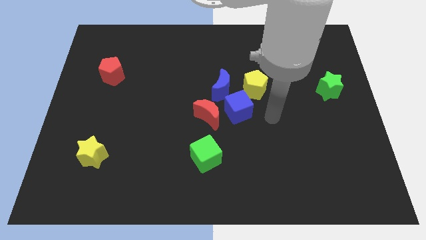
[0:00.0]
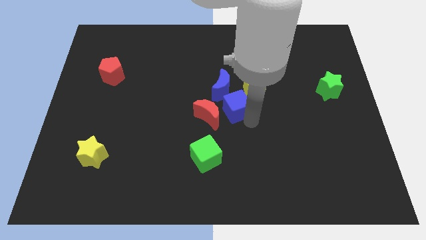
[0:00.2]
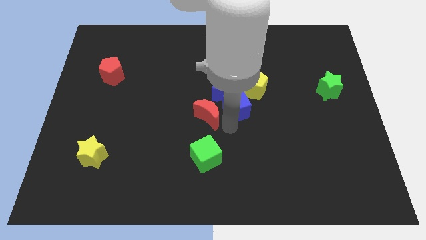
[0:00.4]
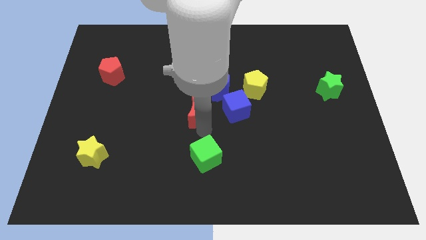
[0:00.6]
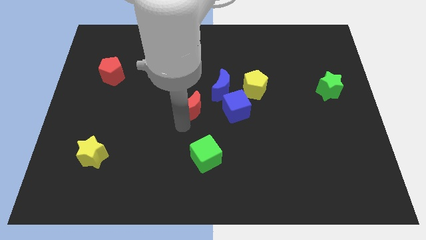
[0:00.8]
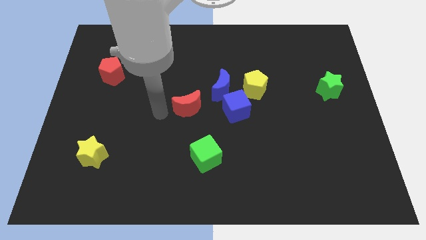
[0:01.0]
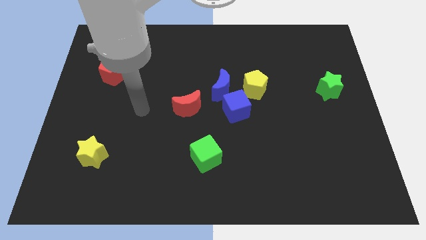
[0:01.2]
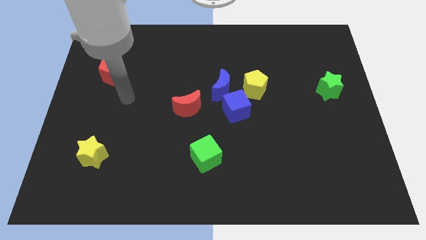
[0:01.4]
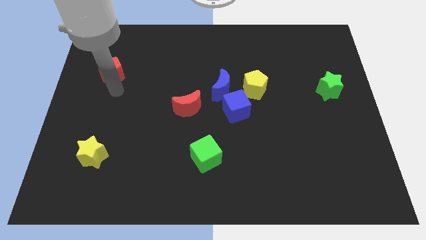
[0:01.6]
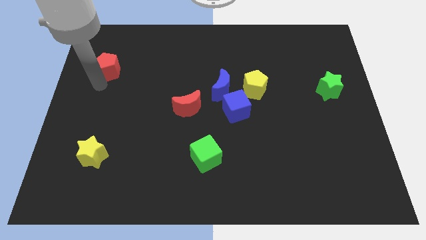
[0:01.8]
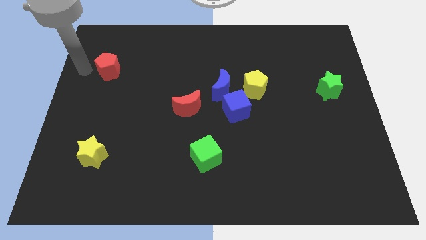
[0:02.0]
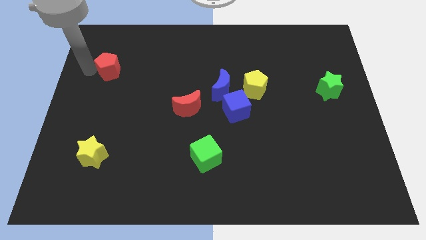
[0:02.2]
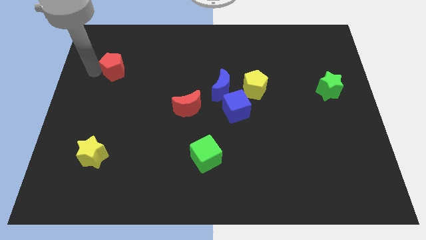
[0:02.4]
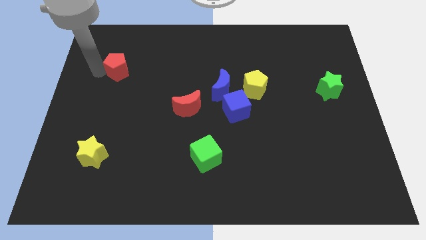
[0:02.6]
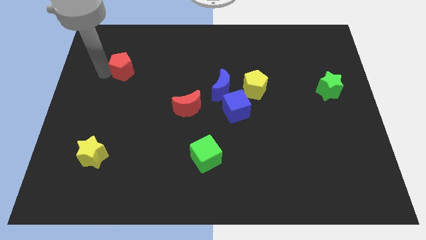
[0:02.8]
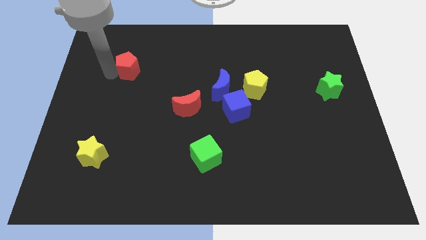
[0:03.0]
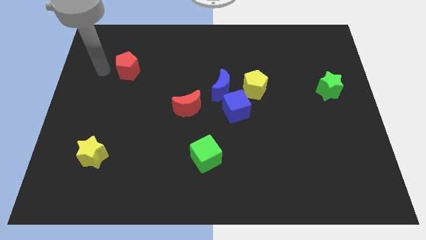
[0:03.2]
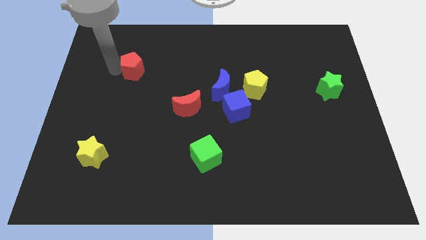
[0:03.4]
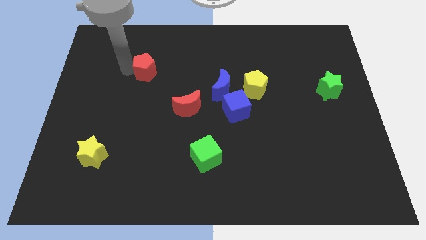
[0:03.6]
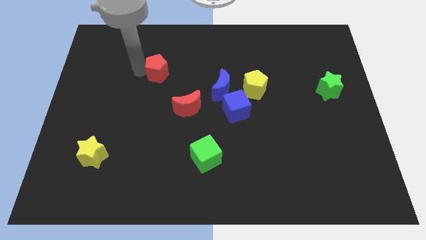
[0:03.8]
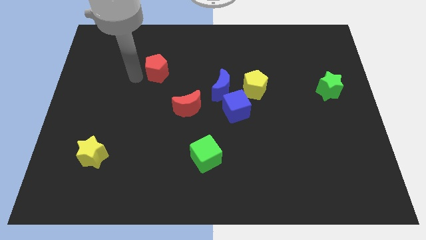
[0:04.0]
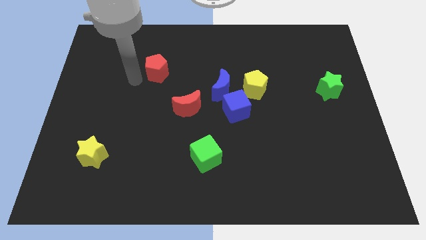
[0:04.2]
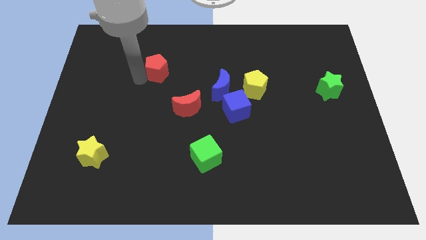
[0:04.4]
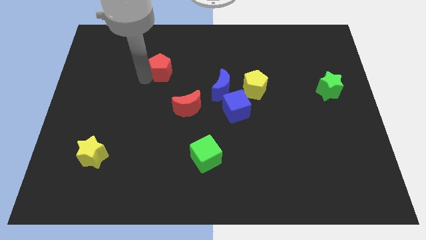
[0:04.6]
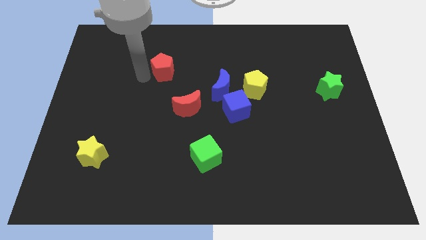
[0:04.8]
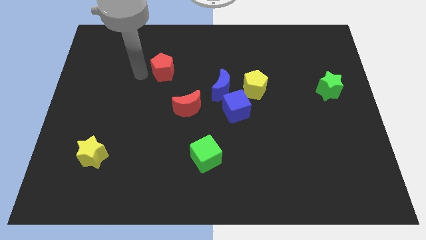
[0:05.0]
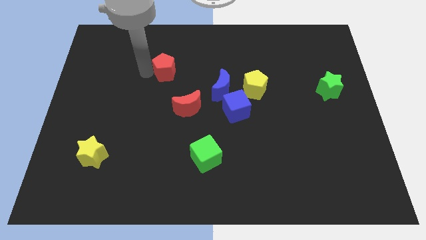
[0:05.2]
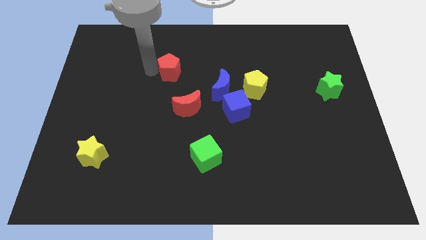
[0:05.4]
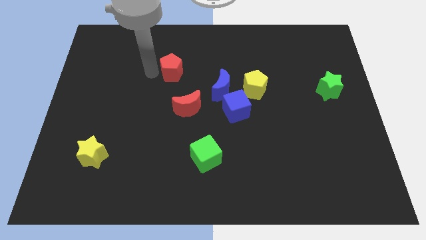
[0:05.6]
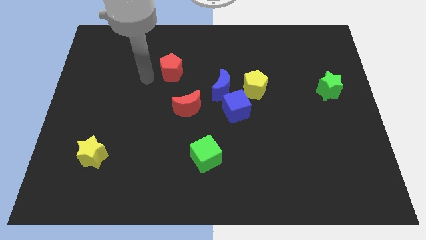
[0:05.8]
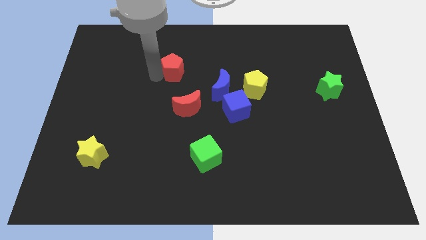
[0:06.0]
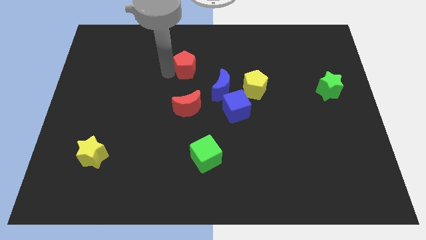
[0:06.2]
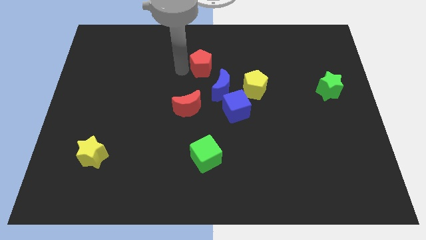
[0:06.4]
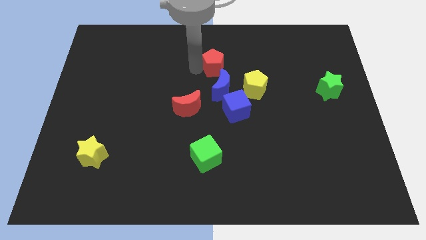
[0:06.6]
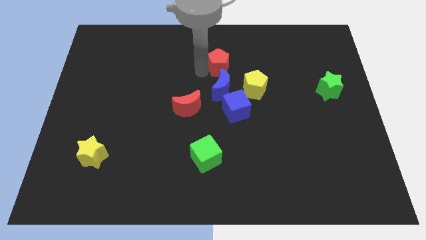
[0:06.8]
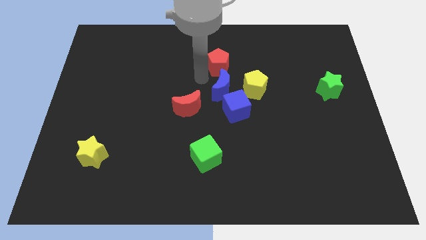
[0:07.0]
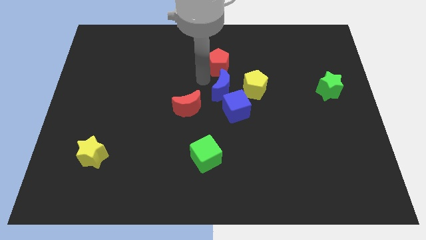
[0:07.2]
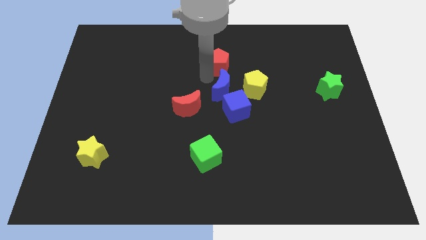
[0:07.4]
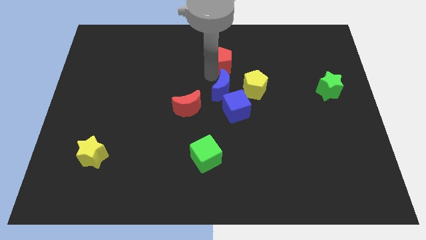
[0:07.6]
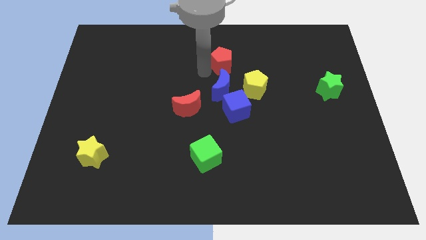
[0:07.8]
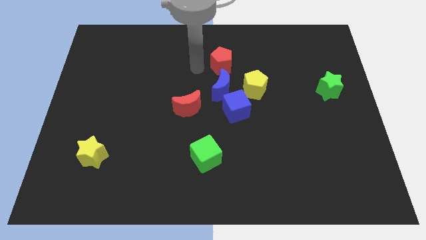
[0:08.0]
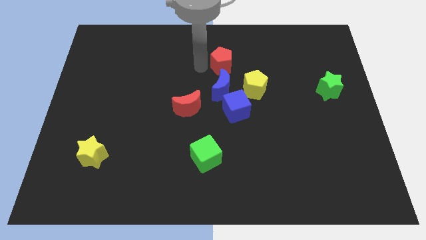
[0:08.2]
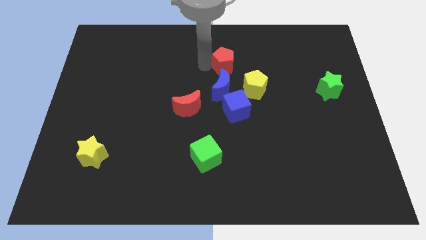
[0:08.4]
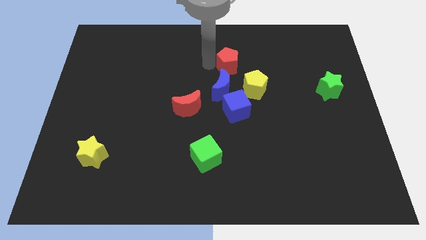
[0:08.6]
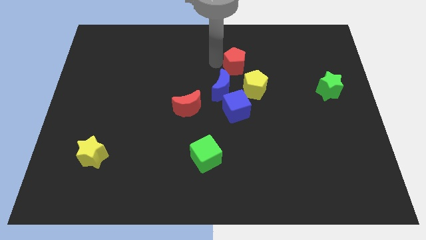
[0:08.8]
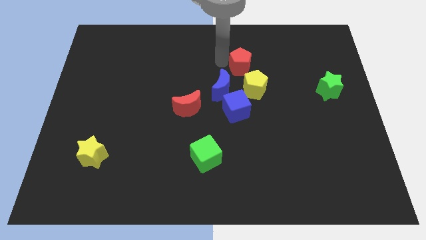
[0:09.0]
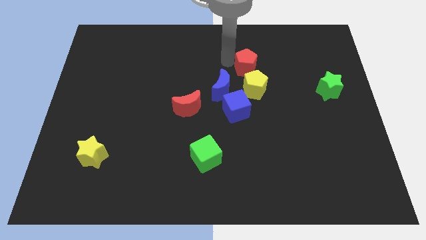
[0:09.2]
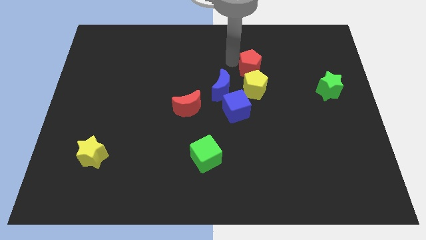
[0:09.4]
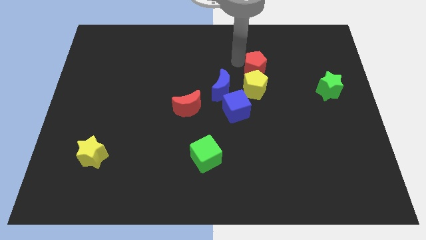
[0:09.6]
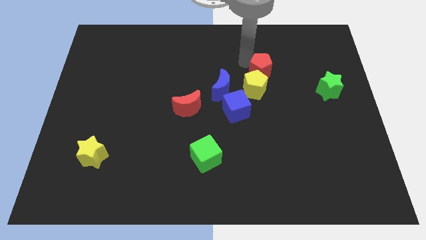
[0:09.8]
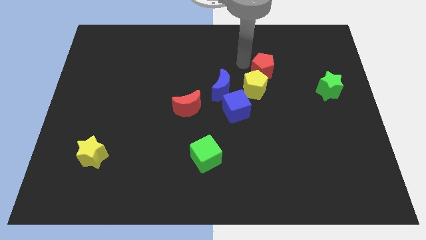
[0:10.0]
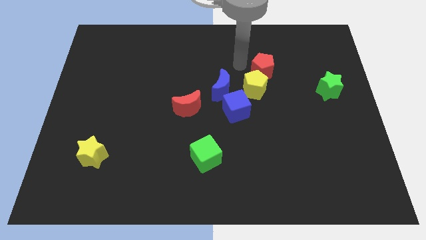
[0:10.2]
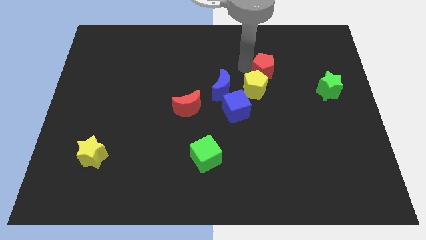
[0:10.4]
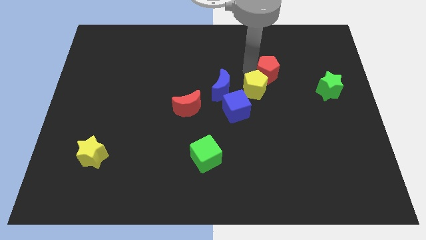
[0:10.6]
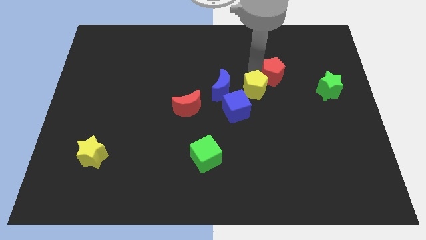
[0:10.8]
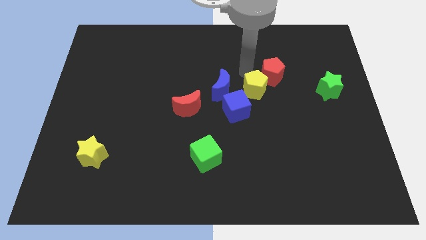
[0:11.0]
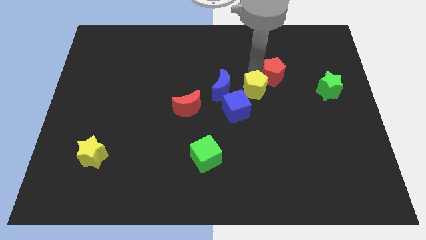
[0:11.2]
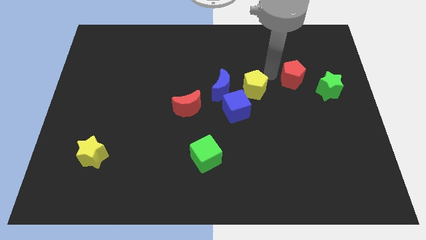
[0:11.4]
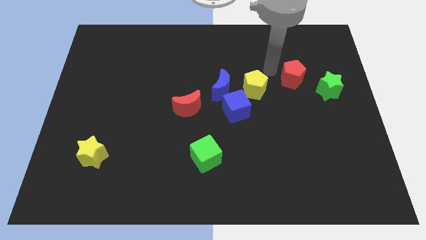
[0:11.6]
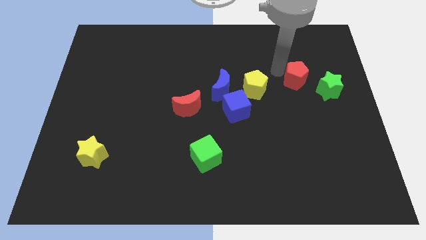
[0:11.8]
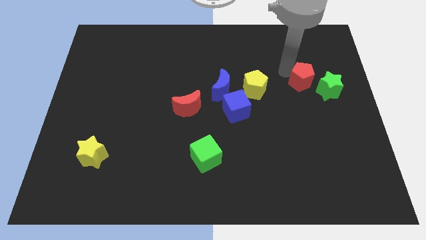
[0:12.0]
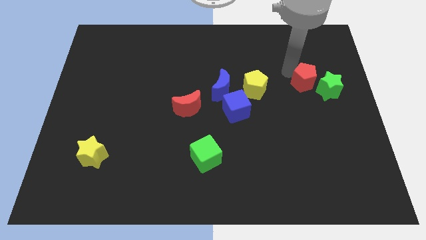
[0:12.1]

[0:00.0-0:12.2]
put the red pentagon to the green star

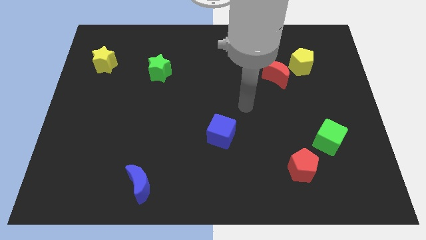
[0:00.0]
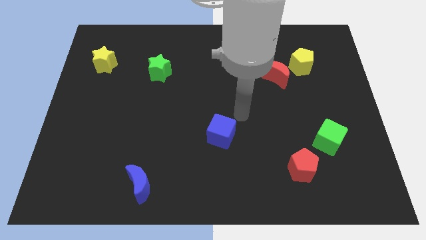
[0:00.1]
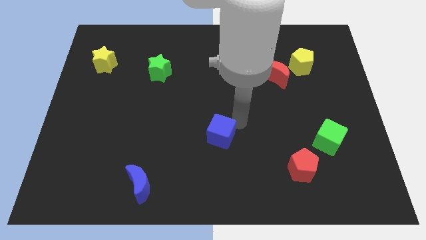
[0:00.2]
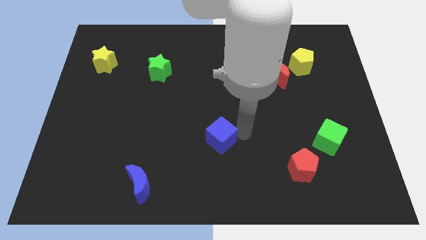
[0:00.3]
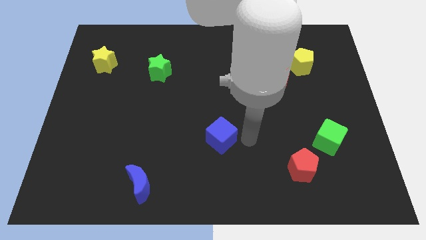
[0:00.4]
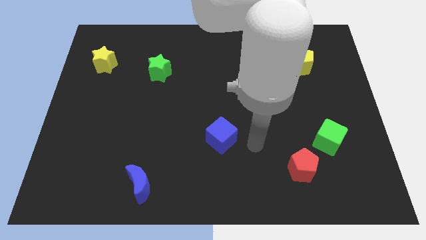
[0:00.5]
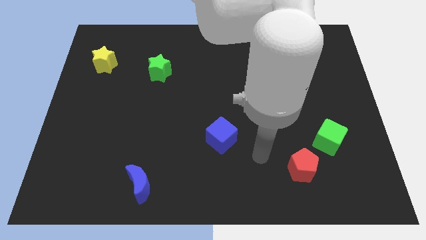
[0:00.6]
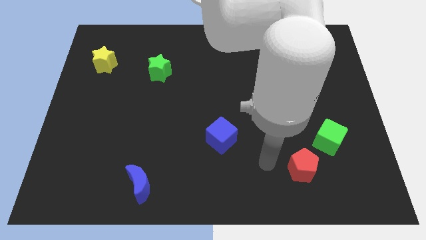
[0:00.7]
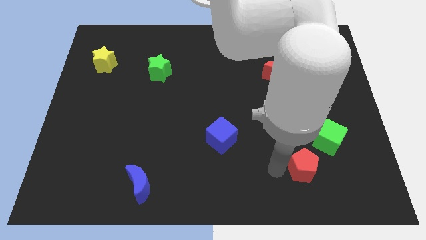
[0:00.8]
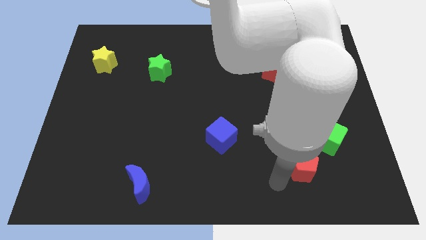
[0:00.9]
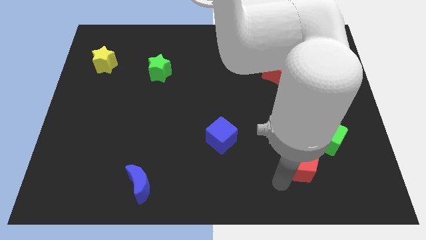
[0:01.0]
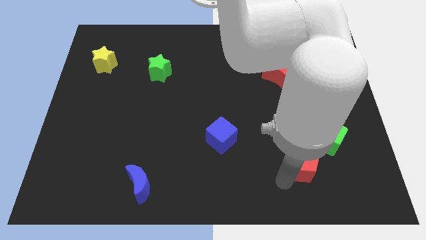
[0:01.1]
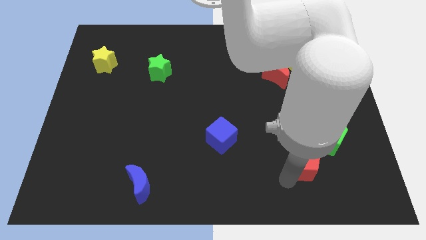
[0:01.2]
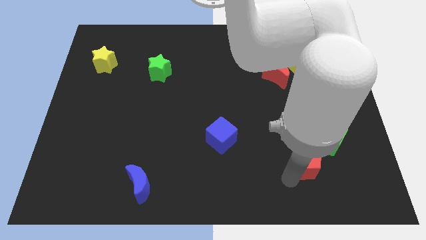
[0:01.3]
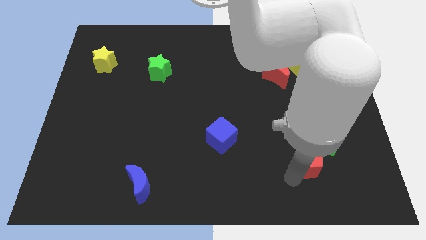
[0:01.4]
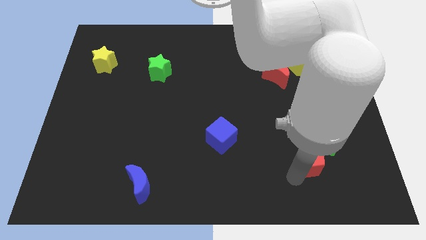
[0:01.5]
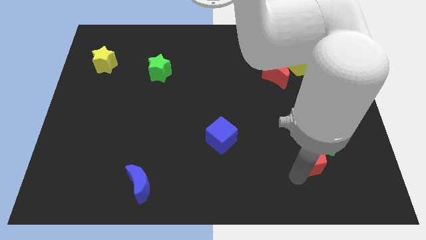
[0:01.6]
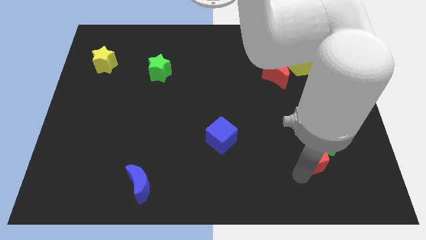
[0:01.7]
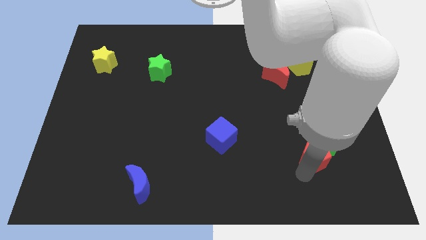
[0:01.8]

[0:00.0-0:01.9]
move the red pentagon towards the green cube
